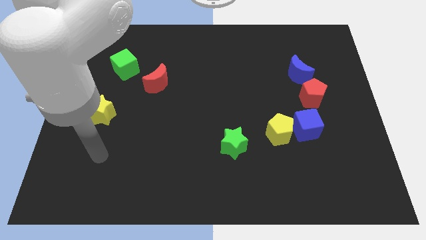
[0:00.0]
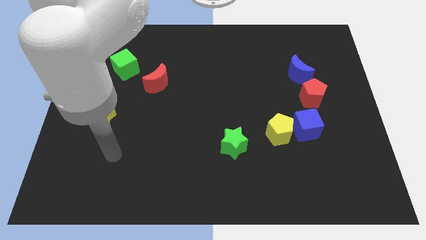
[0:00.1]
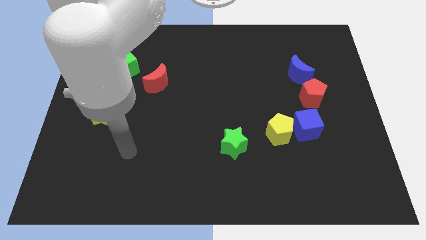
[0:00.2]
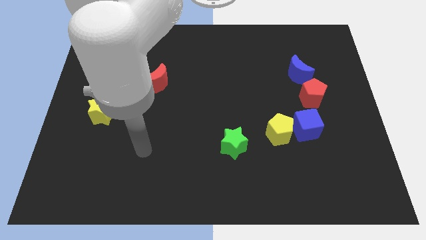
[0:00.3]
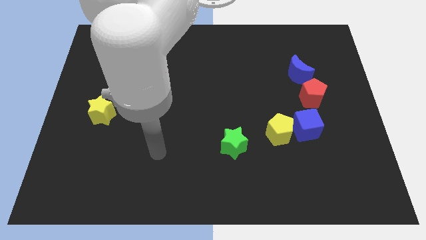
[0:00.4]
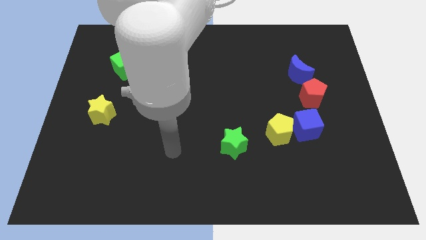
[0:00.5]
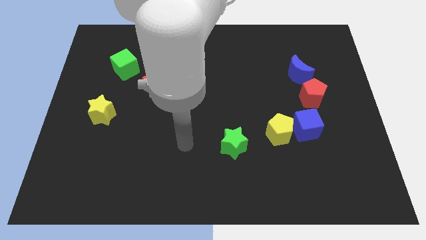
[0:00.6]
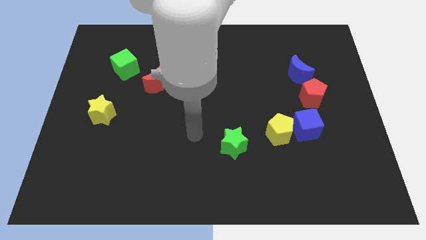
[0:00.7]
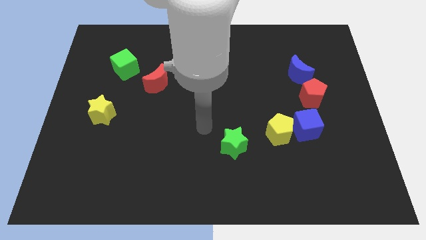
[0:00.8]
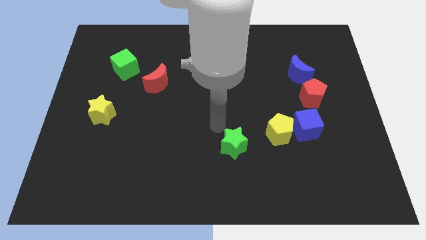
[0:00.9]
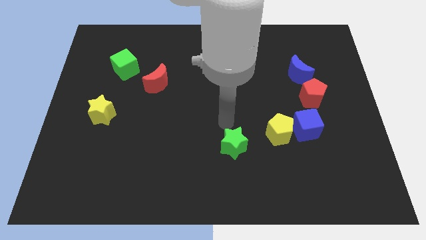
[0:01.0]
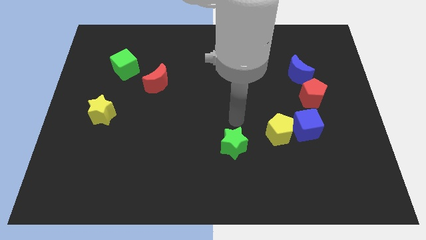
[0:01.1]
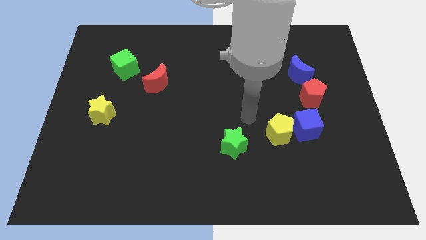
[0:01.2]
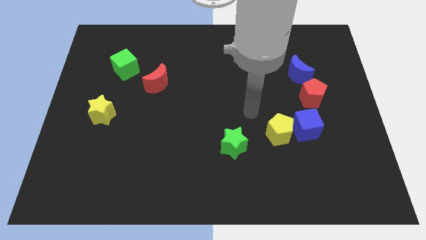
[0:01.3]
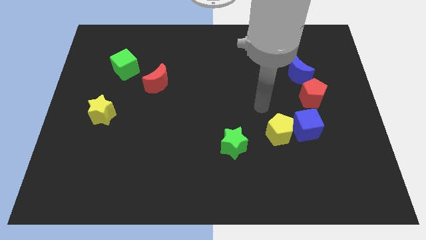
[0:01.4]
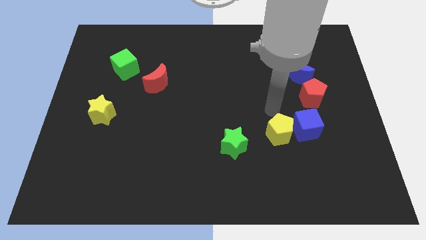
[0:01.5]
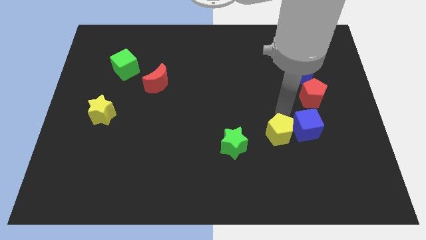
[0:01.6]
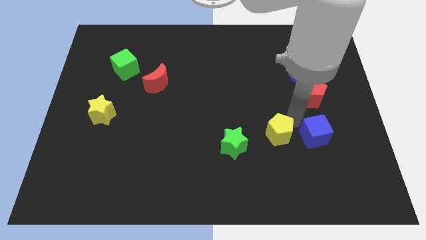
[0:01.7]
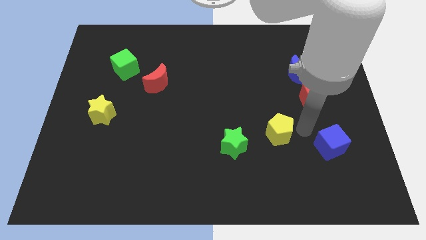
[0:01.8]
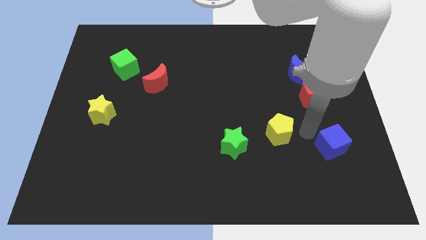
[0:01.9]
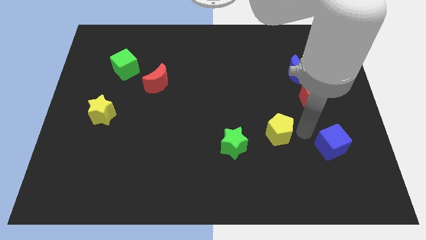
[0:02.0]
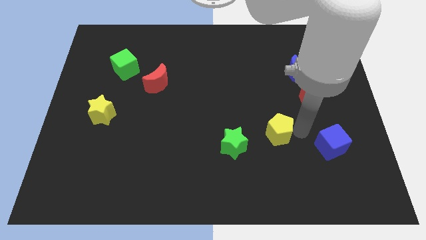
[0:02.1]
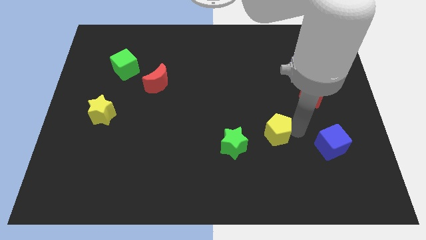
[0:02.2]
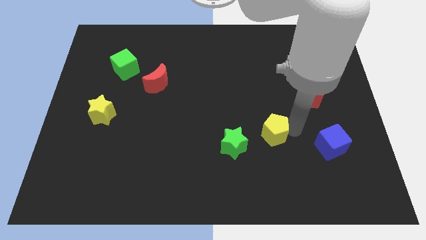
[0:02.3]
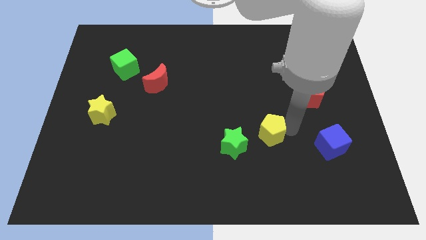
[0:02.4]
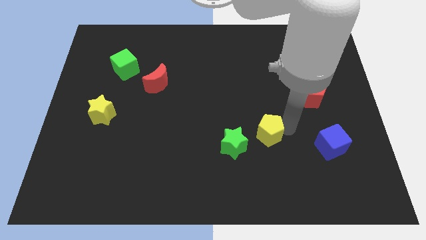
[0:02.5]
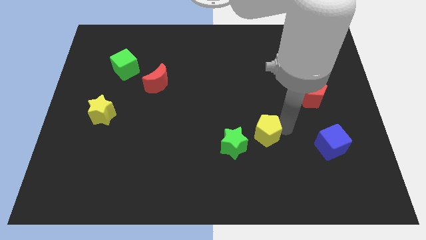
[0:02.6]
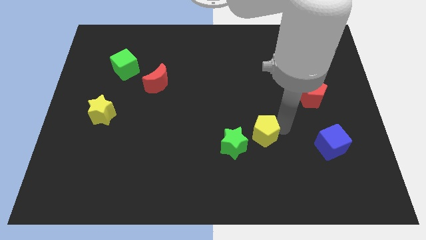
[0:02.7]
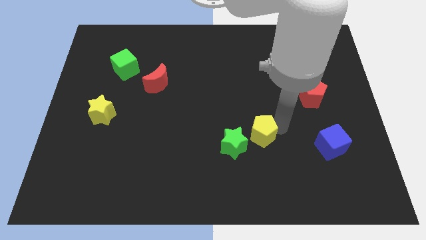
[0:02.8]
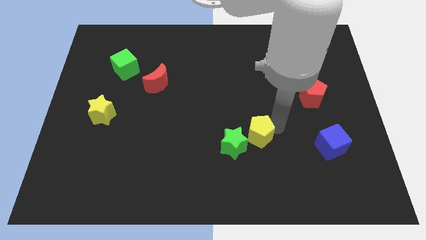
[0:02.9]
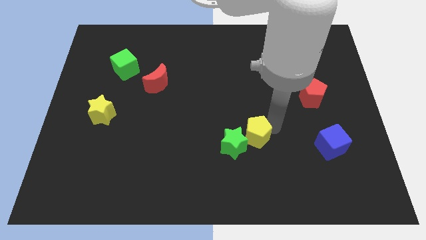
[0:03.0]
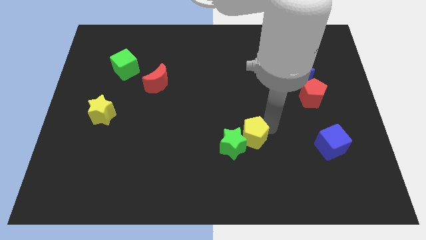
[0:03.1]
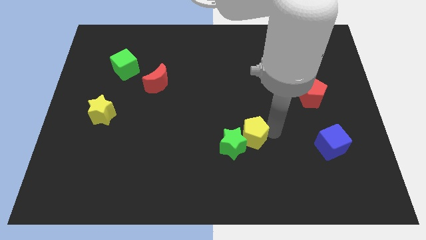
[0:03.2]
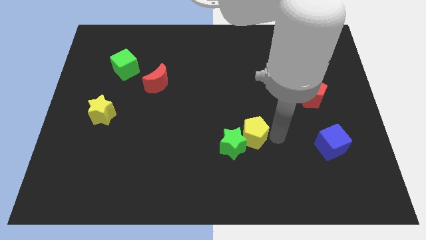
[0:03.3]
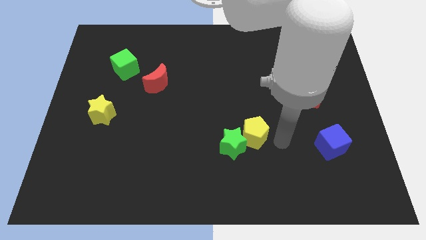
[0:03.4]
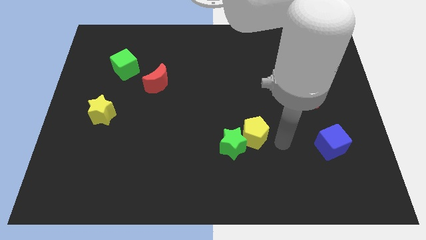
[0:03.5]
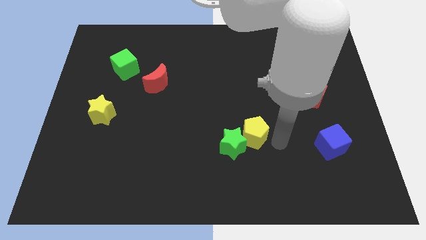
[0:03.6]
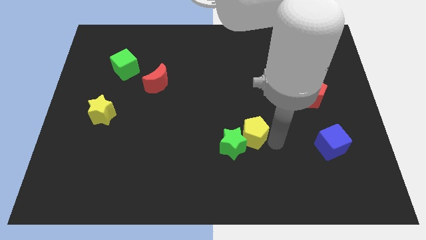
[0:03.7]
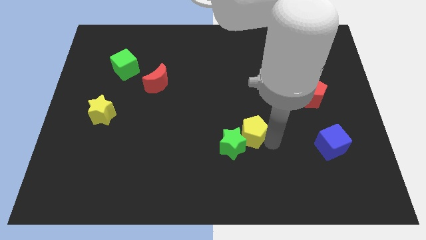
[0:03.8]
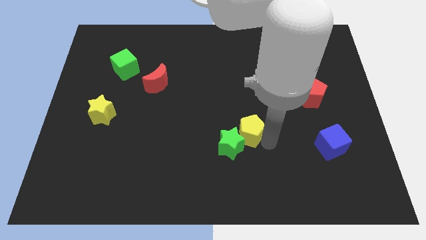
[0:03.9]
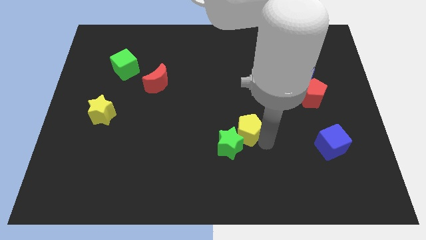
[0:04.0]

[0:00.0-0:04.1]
slide the yellow pentagon a little to the left

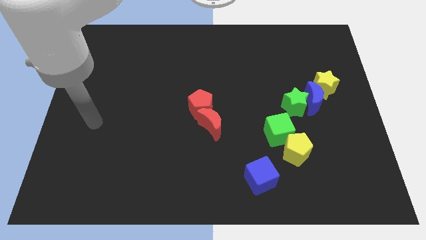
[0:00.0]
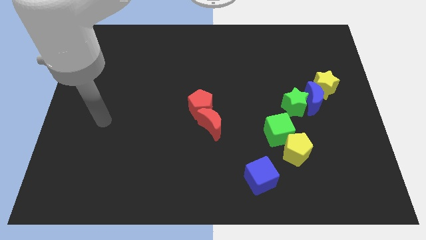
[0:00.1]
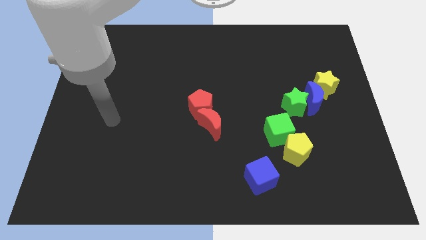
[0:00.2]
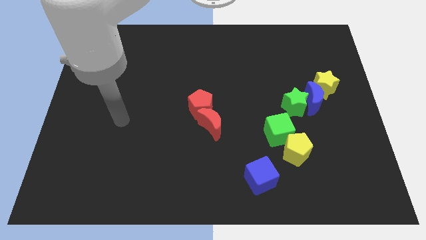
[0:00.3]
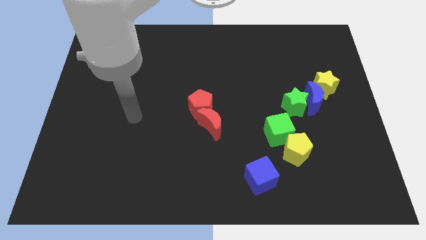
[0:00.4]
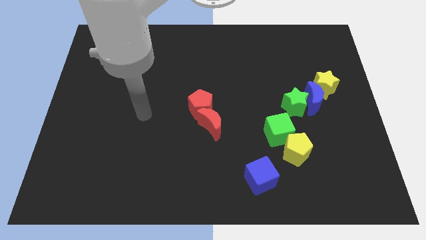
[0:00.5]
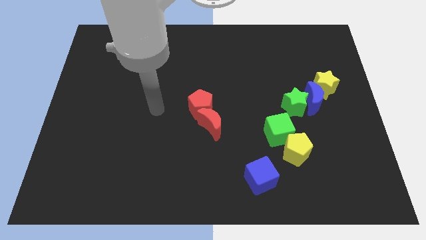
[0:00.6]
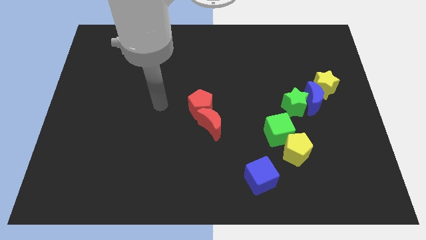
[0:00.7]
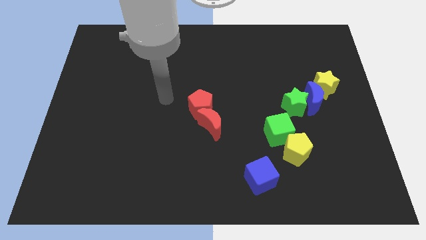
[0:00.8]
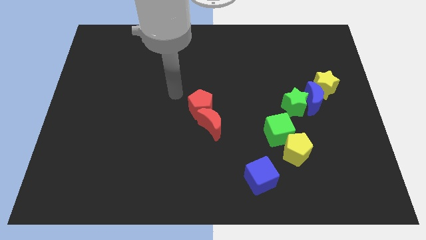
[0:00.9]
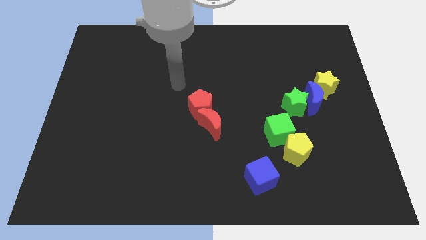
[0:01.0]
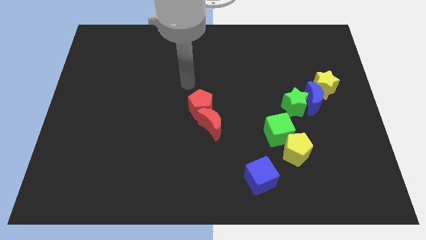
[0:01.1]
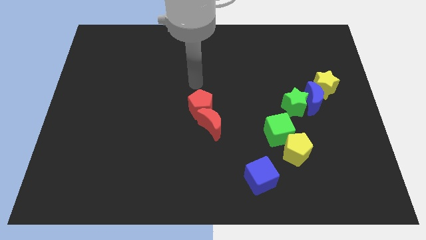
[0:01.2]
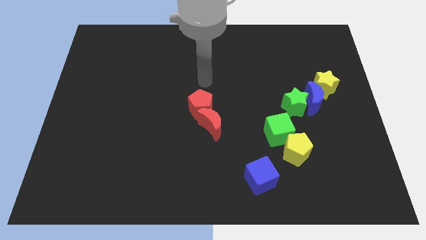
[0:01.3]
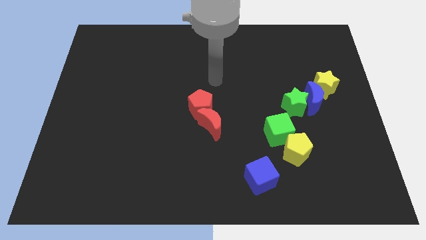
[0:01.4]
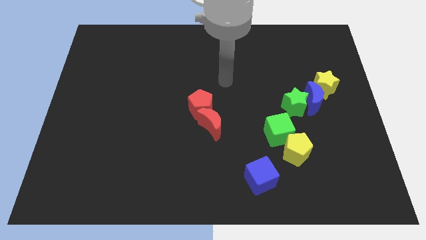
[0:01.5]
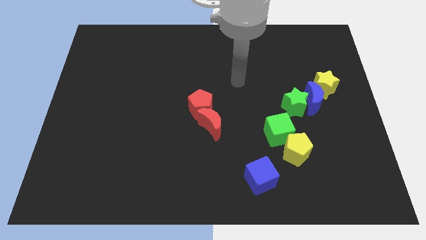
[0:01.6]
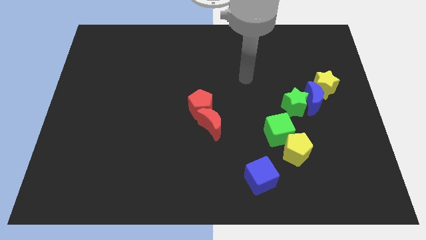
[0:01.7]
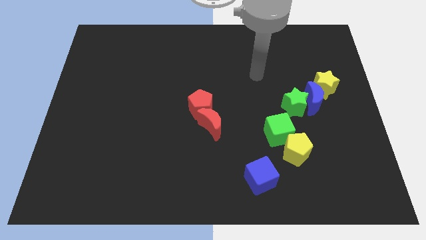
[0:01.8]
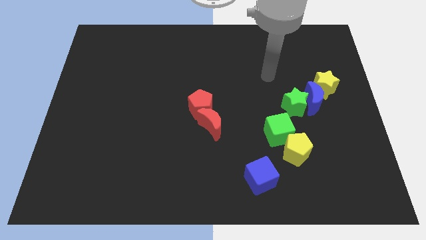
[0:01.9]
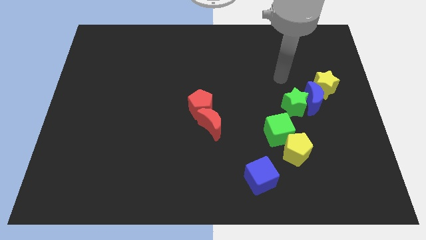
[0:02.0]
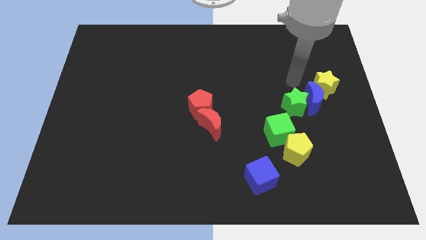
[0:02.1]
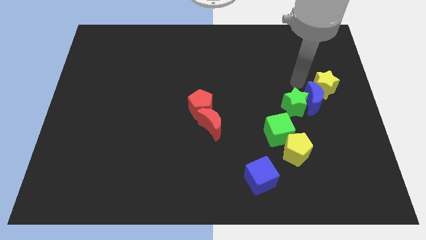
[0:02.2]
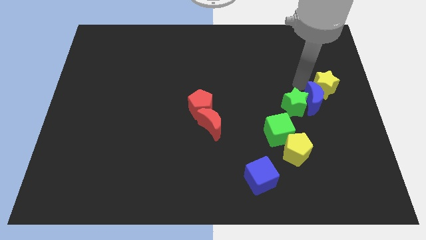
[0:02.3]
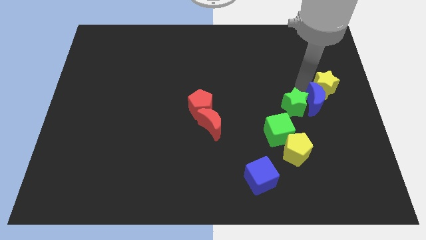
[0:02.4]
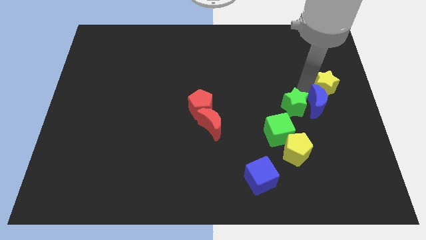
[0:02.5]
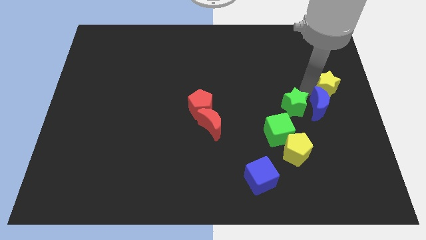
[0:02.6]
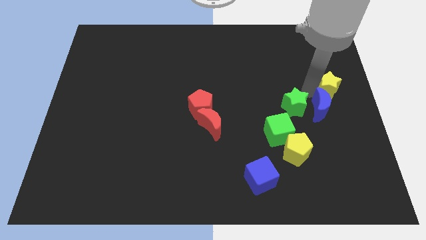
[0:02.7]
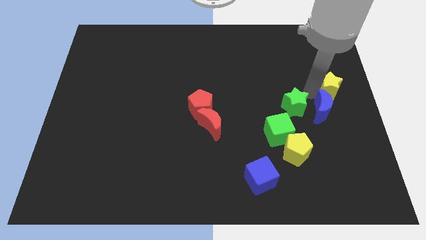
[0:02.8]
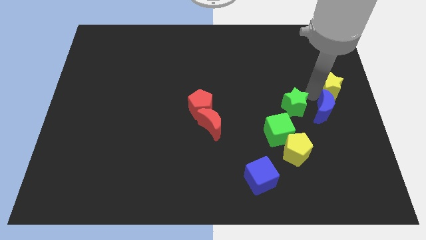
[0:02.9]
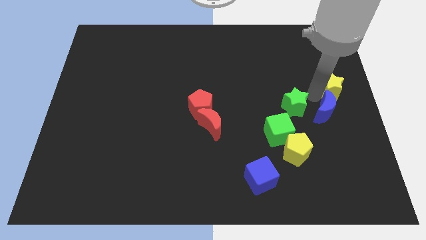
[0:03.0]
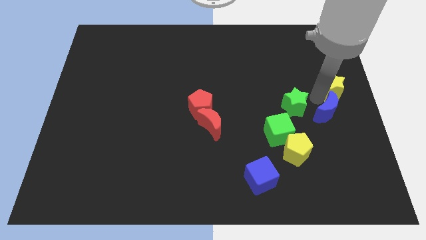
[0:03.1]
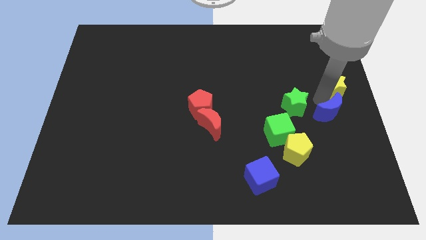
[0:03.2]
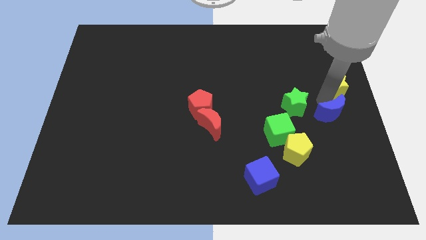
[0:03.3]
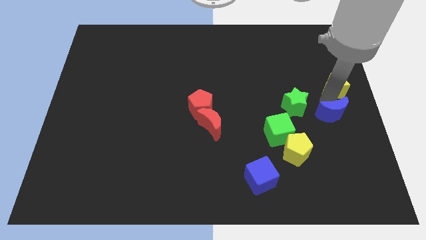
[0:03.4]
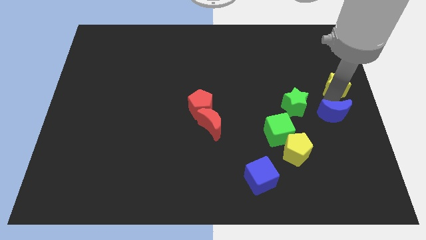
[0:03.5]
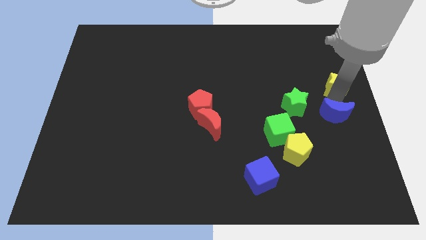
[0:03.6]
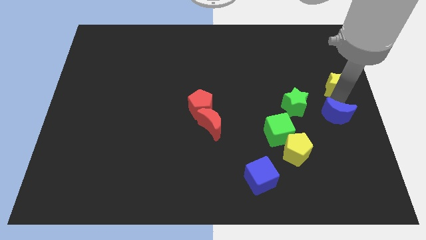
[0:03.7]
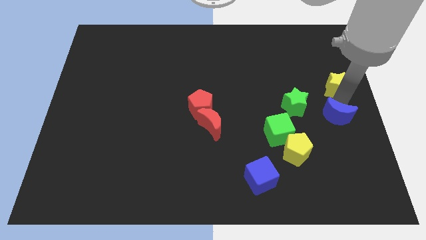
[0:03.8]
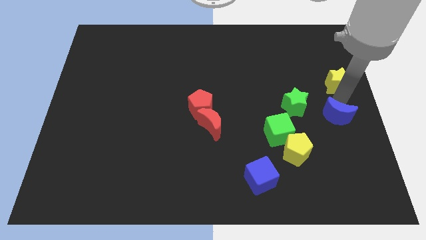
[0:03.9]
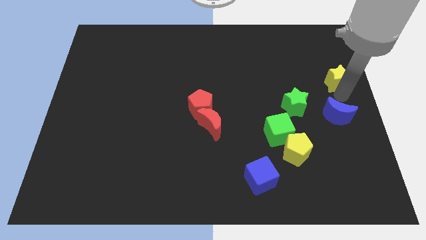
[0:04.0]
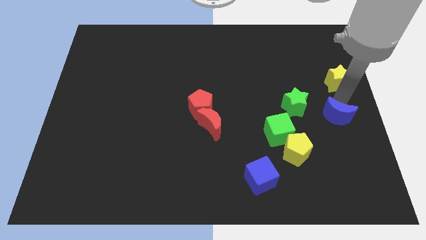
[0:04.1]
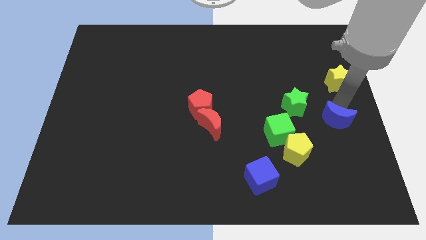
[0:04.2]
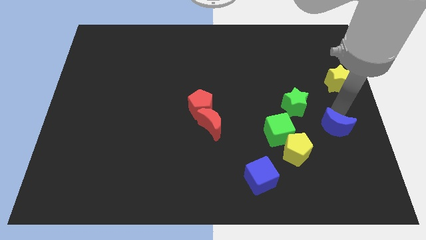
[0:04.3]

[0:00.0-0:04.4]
move the blue moon down somewhat
